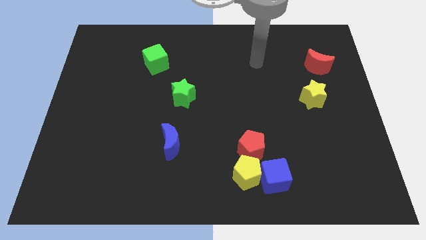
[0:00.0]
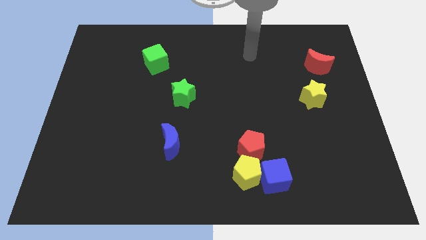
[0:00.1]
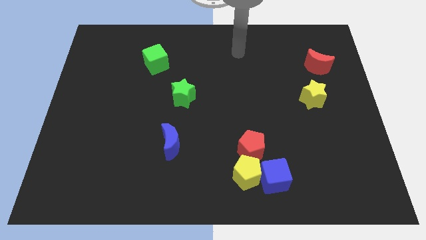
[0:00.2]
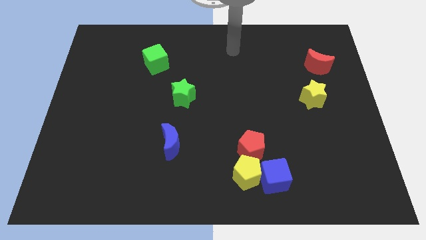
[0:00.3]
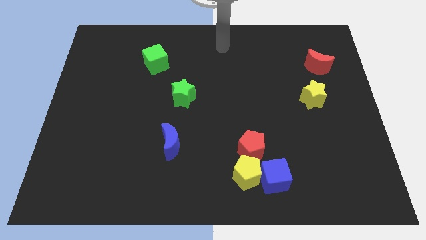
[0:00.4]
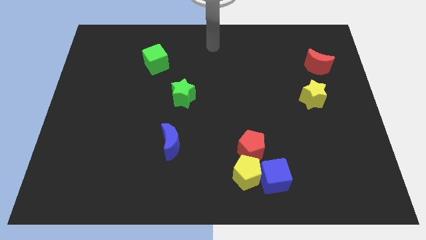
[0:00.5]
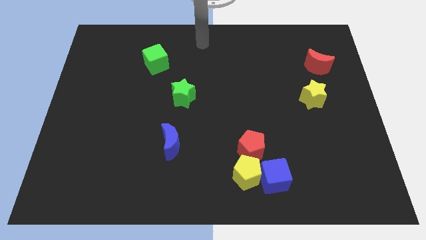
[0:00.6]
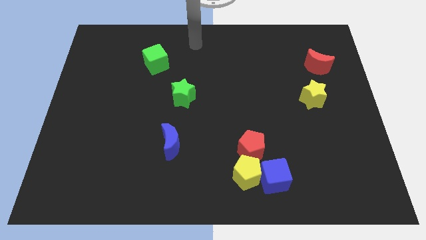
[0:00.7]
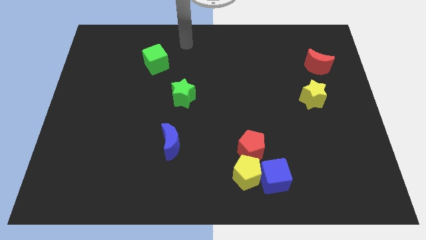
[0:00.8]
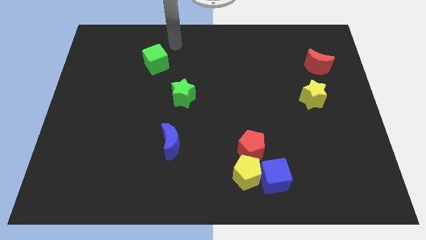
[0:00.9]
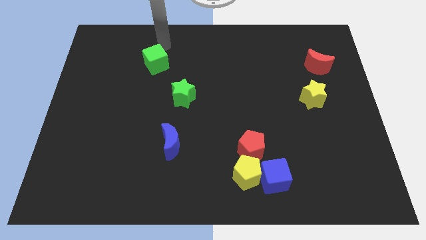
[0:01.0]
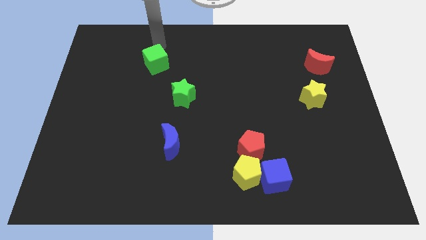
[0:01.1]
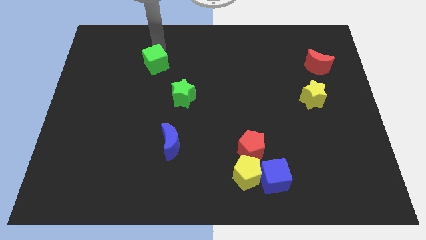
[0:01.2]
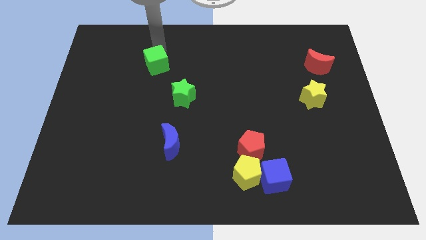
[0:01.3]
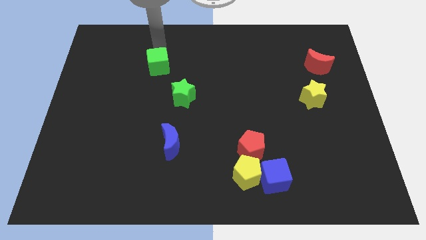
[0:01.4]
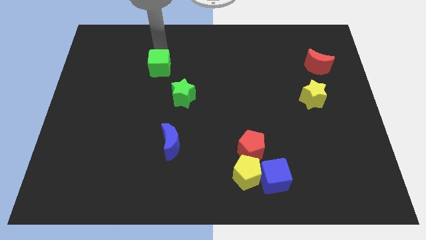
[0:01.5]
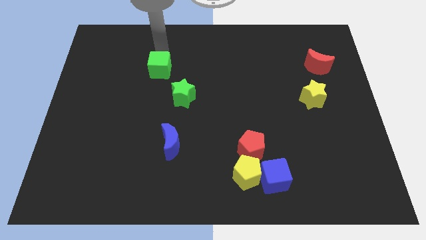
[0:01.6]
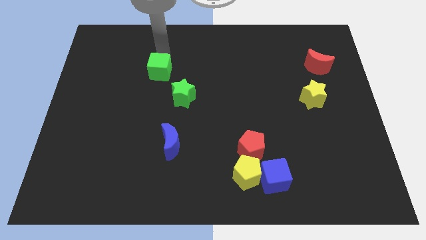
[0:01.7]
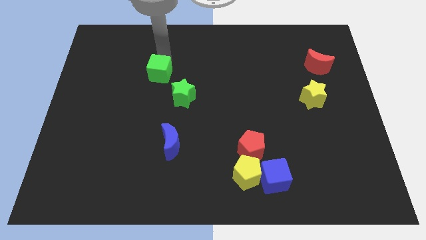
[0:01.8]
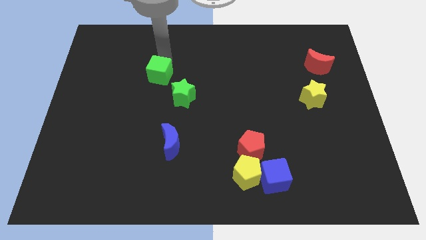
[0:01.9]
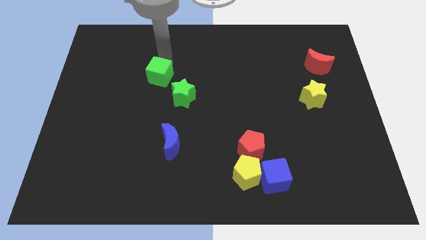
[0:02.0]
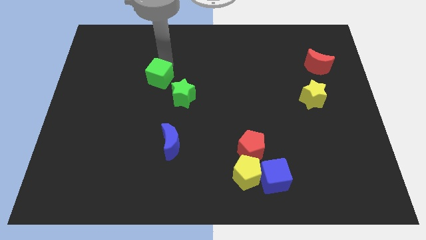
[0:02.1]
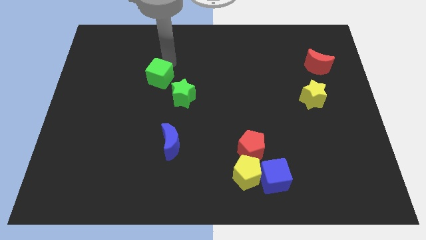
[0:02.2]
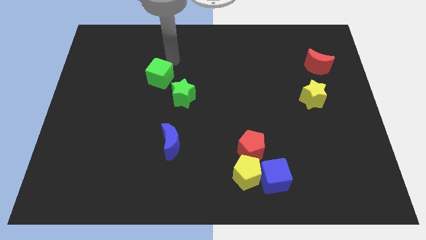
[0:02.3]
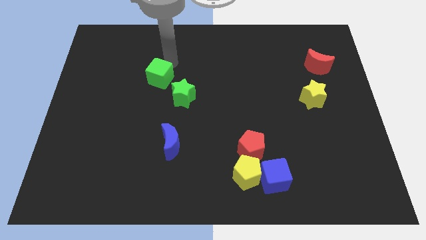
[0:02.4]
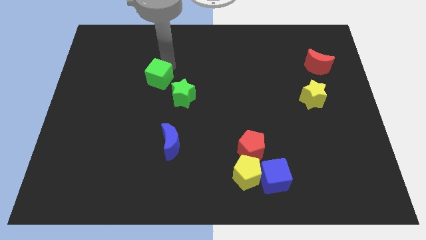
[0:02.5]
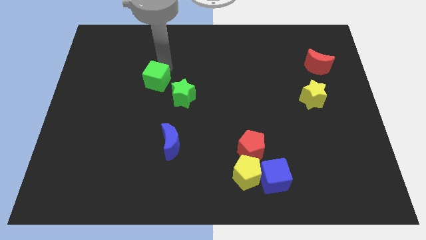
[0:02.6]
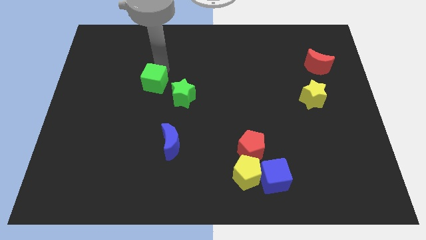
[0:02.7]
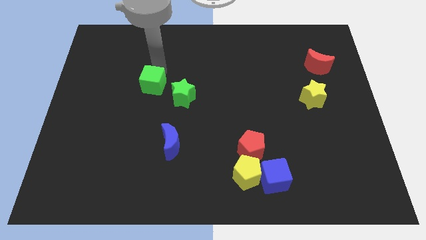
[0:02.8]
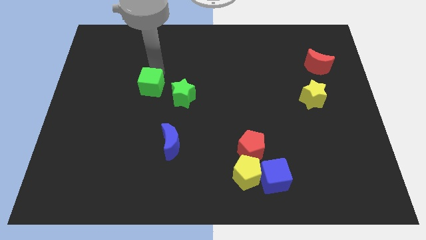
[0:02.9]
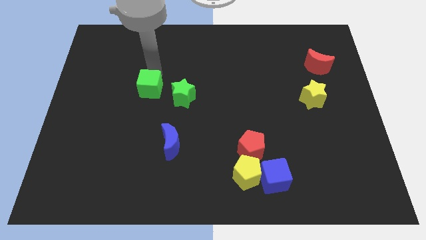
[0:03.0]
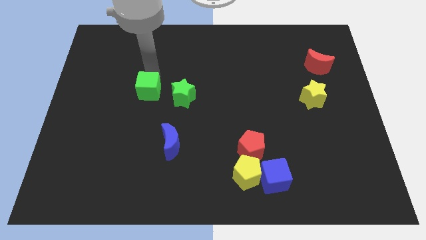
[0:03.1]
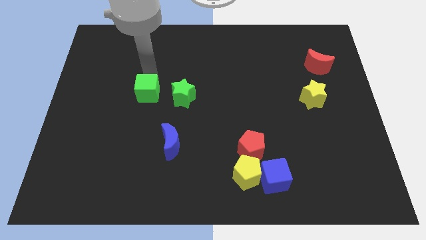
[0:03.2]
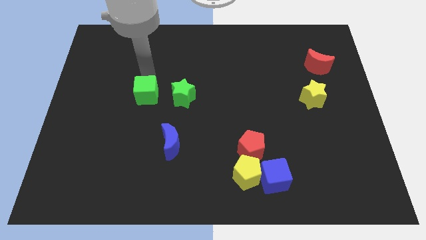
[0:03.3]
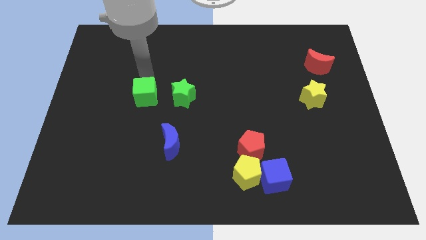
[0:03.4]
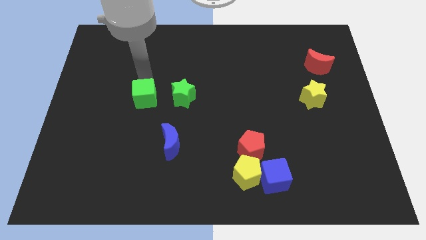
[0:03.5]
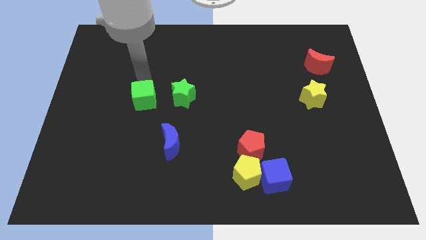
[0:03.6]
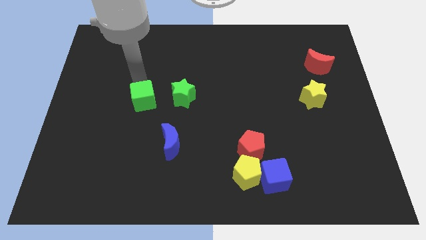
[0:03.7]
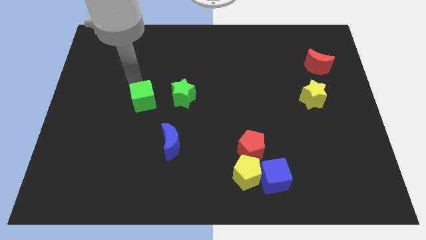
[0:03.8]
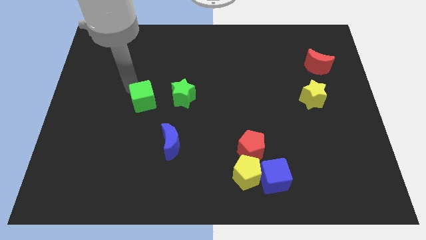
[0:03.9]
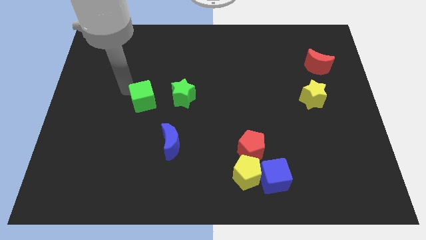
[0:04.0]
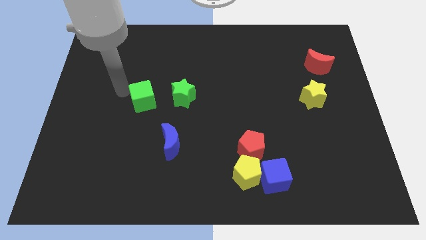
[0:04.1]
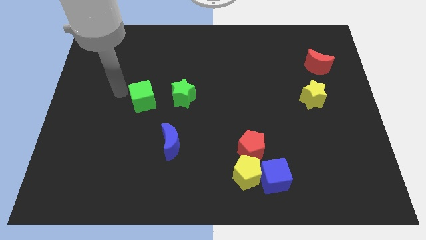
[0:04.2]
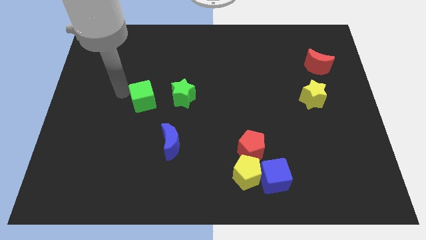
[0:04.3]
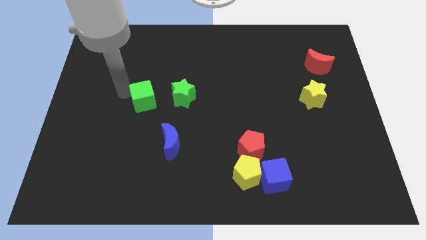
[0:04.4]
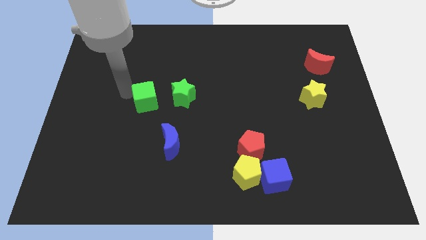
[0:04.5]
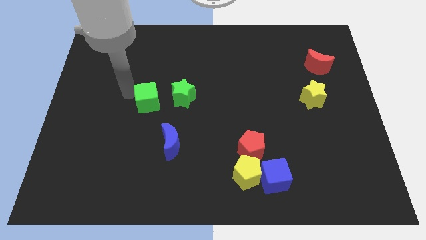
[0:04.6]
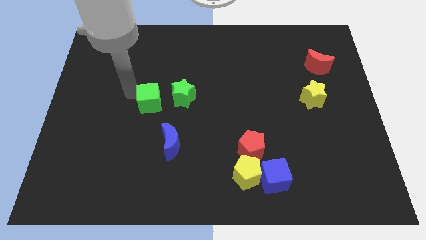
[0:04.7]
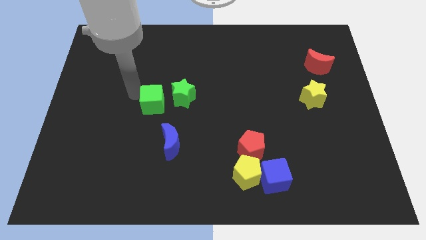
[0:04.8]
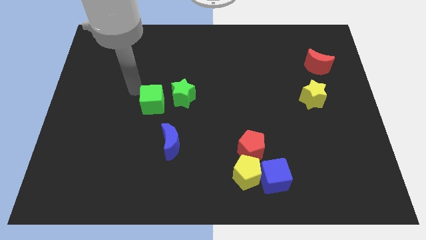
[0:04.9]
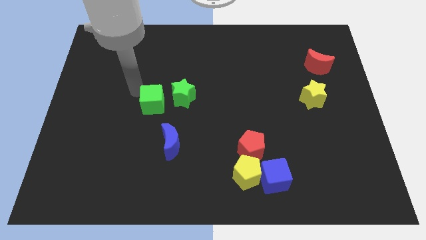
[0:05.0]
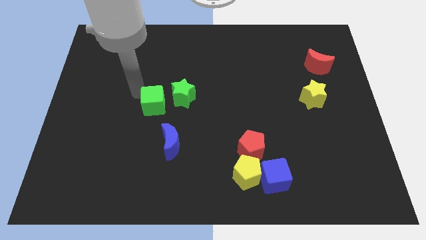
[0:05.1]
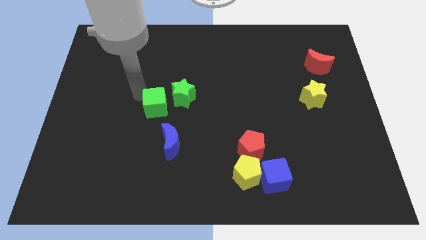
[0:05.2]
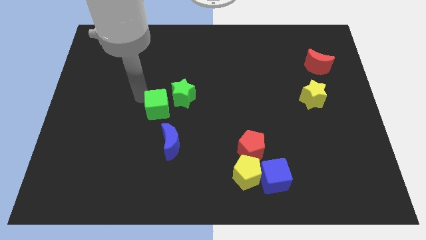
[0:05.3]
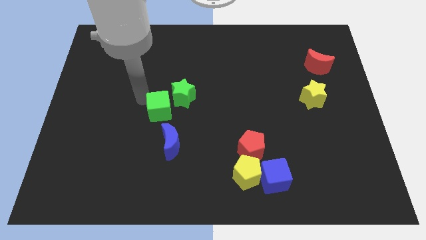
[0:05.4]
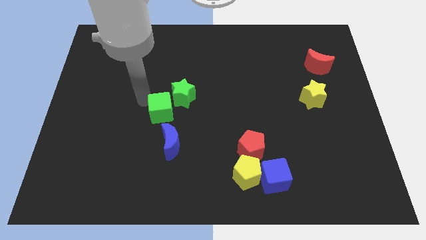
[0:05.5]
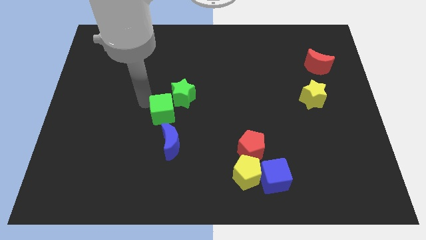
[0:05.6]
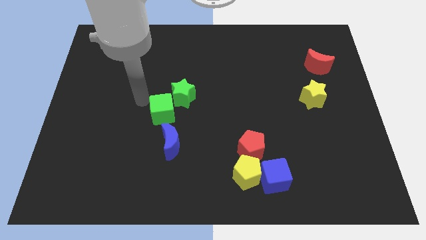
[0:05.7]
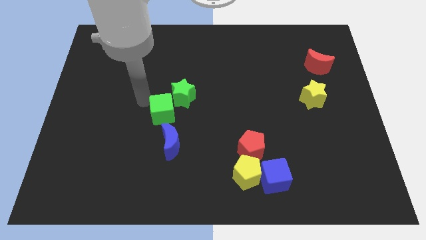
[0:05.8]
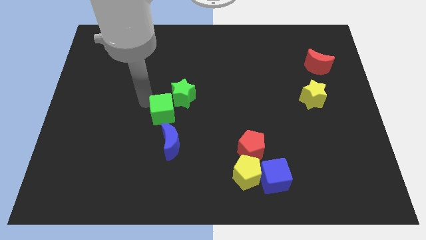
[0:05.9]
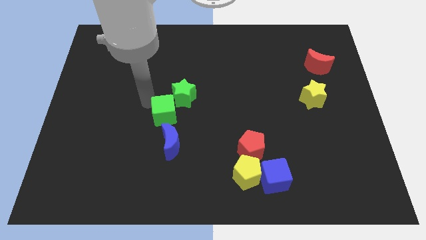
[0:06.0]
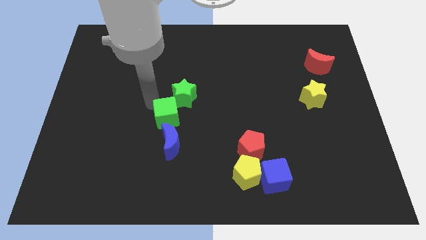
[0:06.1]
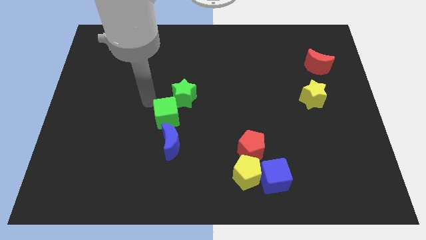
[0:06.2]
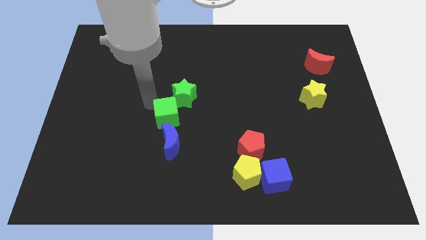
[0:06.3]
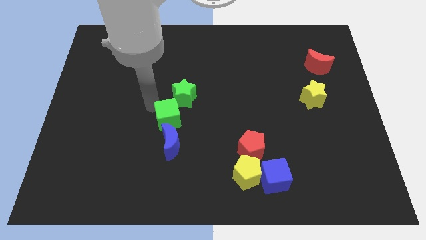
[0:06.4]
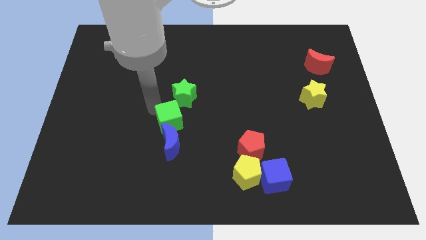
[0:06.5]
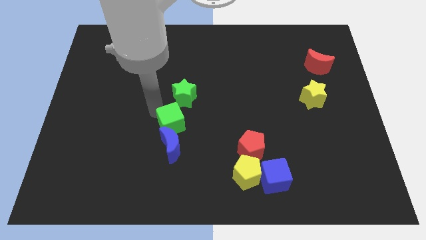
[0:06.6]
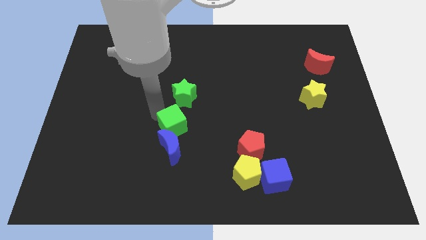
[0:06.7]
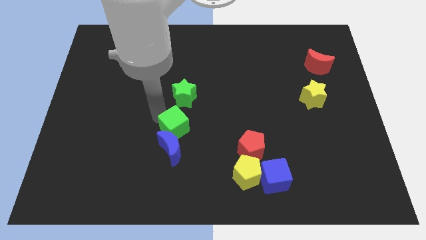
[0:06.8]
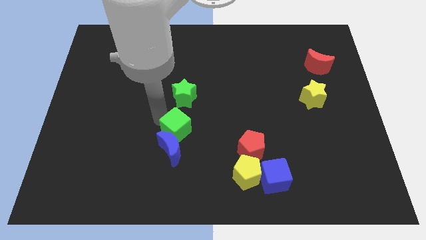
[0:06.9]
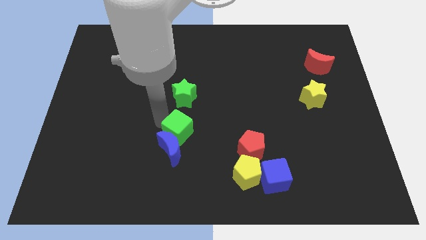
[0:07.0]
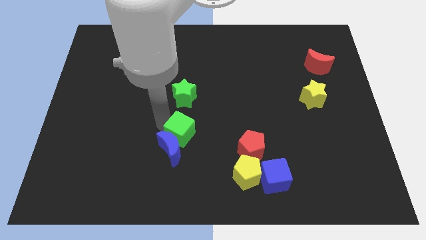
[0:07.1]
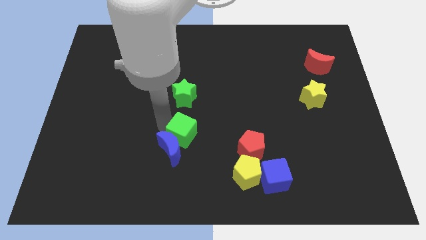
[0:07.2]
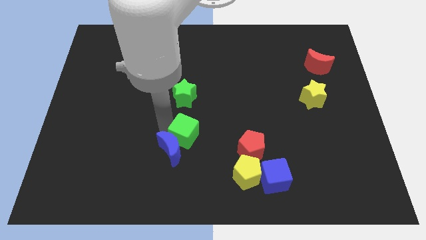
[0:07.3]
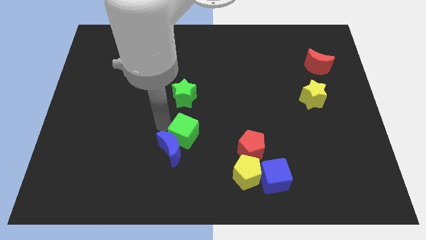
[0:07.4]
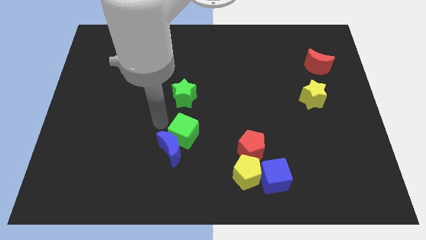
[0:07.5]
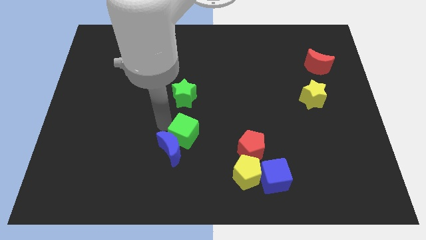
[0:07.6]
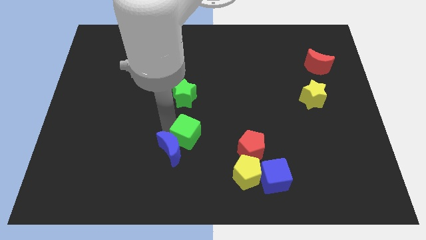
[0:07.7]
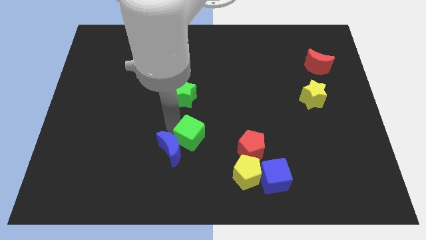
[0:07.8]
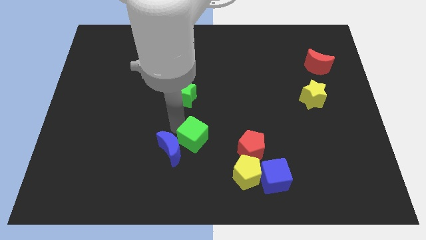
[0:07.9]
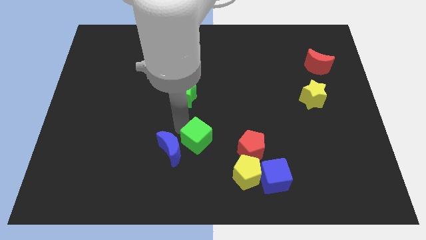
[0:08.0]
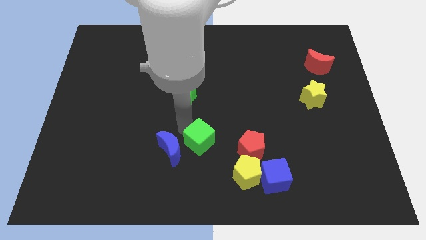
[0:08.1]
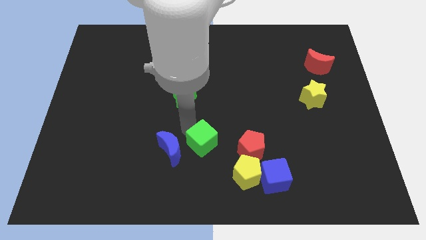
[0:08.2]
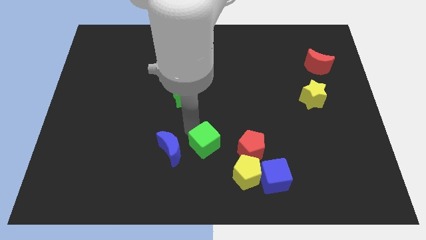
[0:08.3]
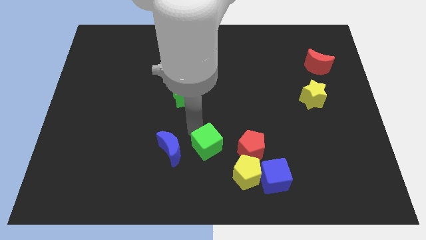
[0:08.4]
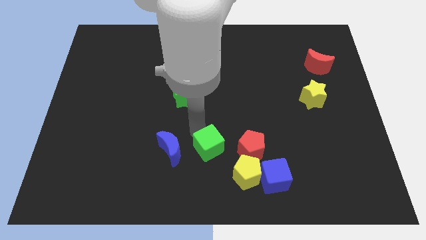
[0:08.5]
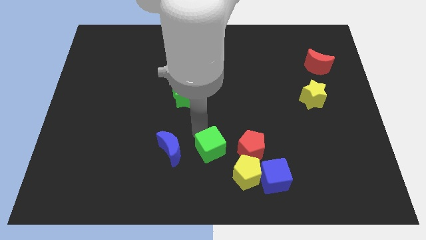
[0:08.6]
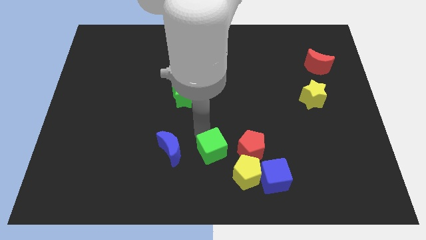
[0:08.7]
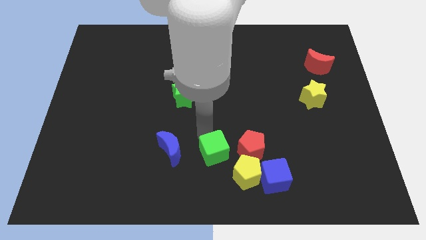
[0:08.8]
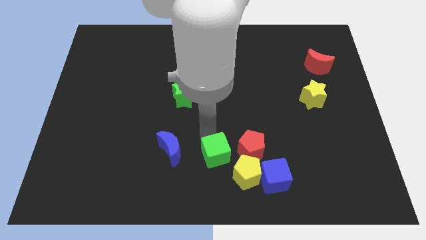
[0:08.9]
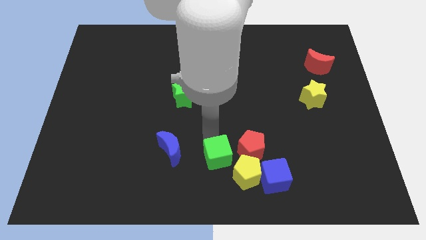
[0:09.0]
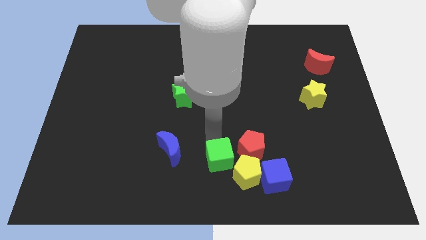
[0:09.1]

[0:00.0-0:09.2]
put the green cube to the left side of the blue cube
